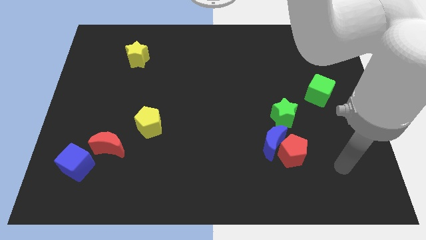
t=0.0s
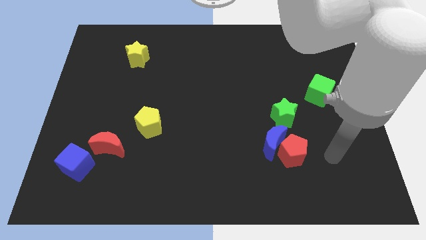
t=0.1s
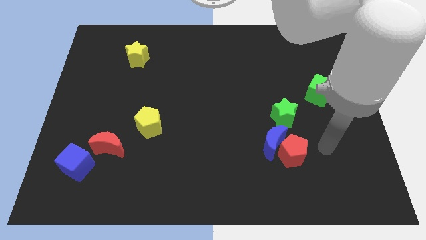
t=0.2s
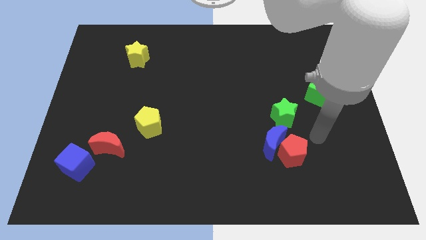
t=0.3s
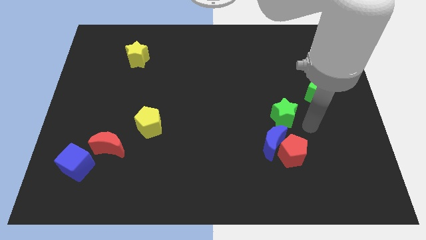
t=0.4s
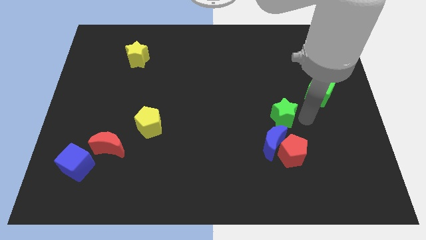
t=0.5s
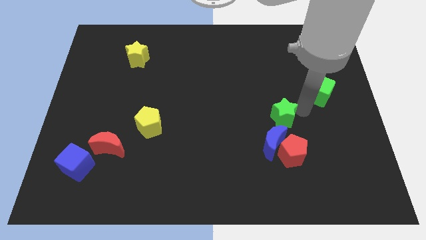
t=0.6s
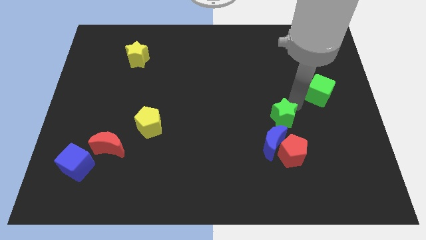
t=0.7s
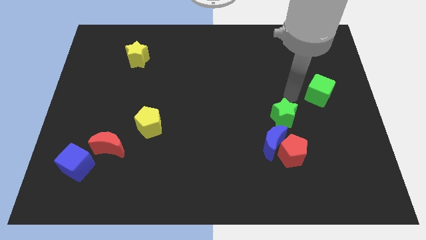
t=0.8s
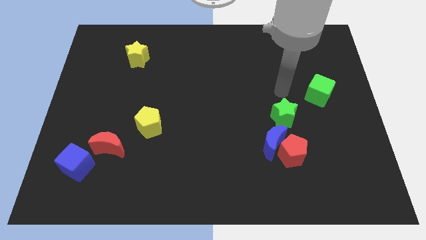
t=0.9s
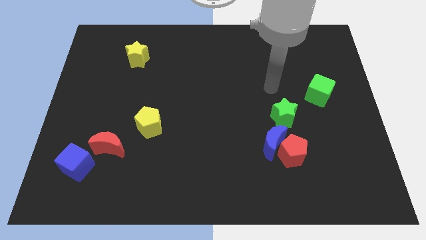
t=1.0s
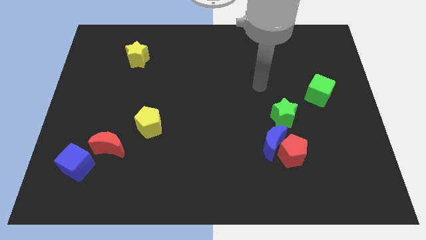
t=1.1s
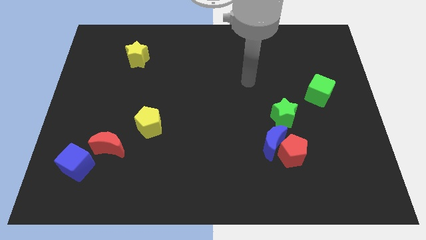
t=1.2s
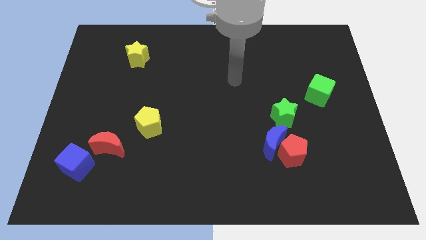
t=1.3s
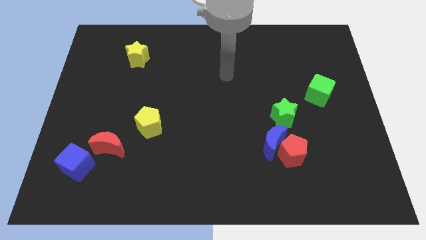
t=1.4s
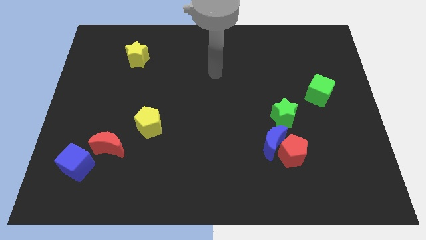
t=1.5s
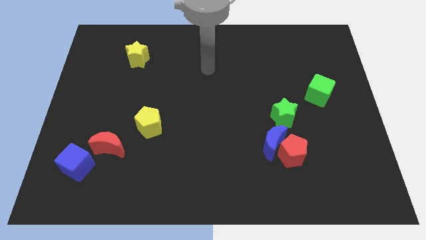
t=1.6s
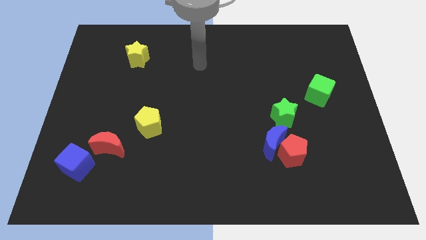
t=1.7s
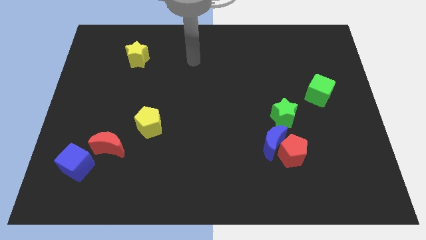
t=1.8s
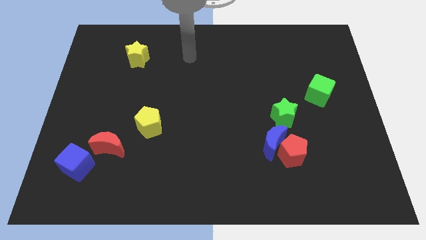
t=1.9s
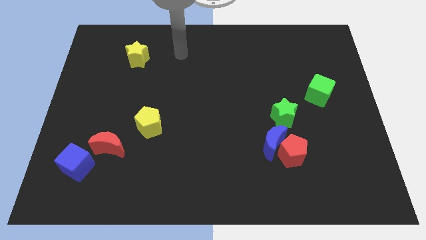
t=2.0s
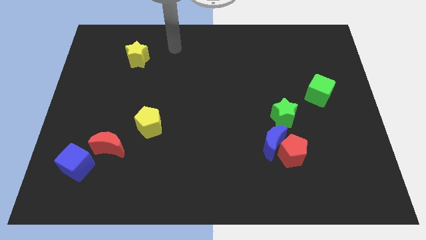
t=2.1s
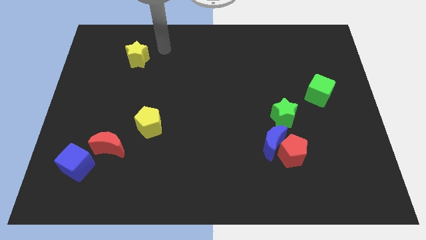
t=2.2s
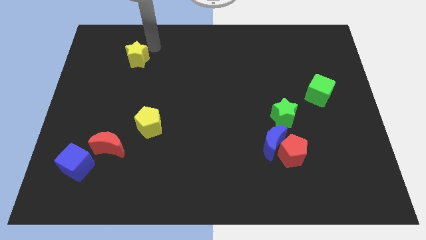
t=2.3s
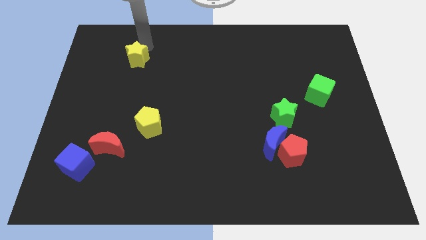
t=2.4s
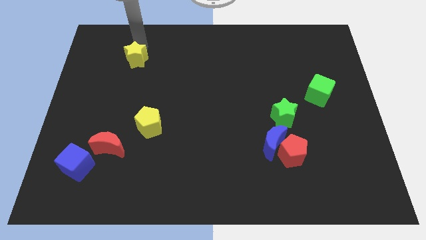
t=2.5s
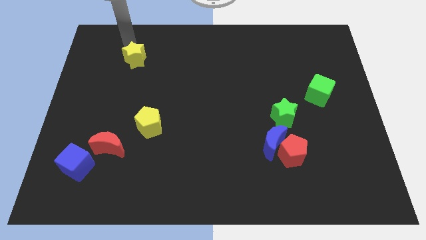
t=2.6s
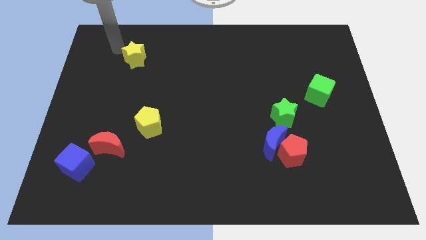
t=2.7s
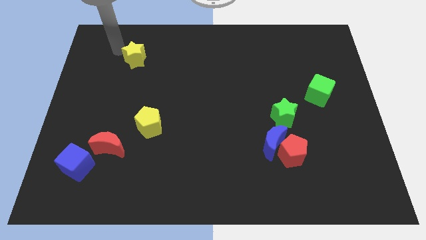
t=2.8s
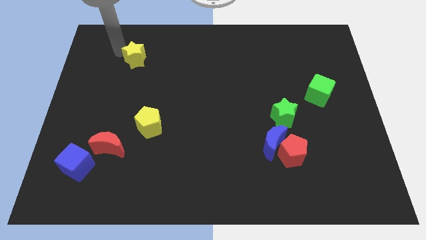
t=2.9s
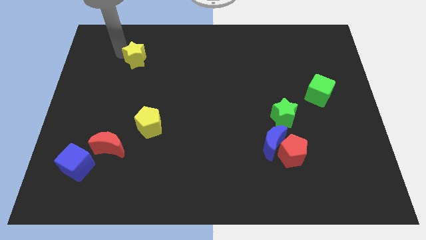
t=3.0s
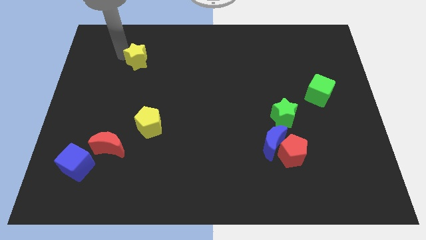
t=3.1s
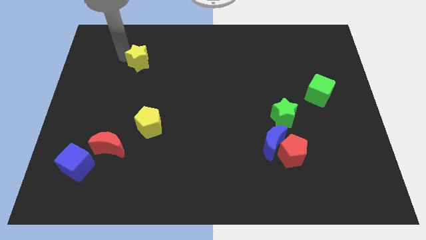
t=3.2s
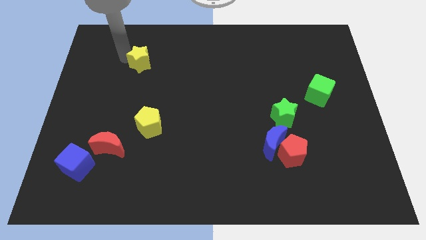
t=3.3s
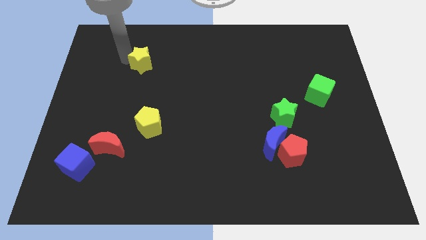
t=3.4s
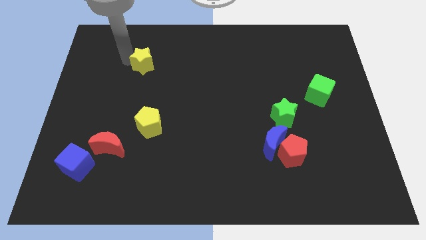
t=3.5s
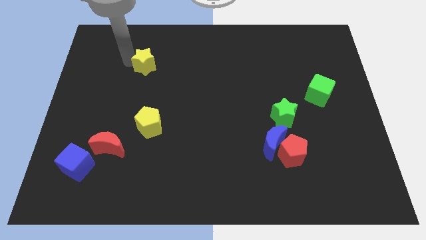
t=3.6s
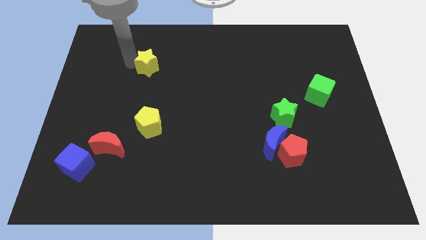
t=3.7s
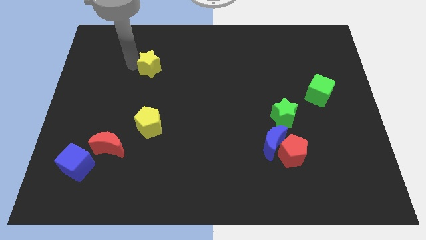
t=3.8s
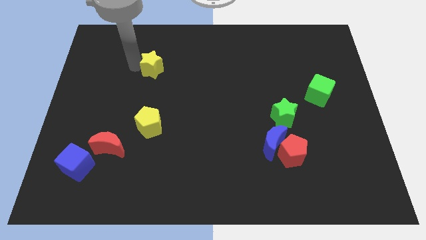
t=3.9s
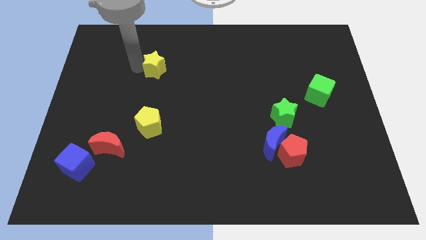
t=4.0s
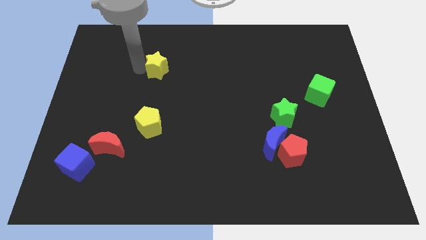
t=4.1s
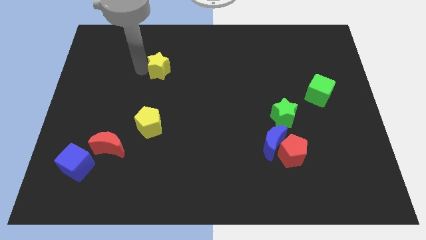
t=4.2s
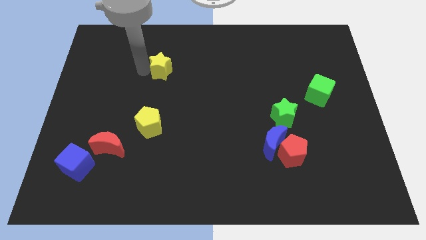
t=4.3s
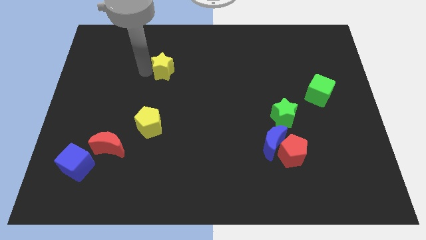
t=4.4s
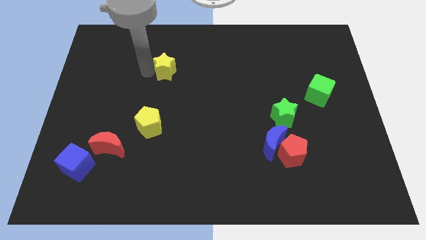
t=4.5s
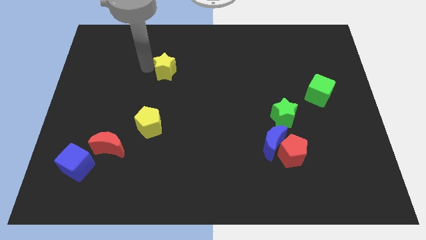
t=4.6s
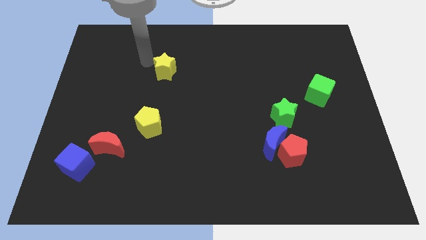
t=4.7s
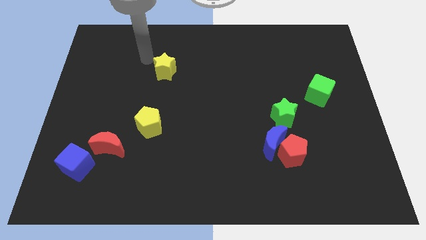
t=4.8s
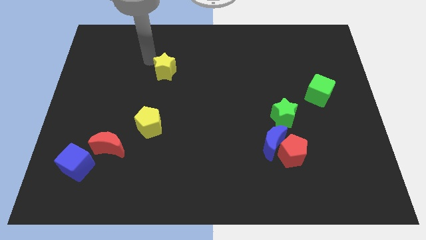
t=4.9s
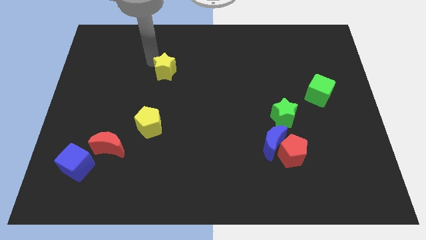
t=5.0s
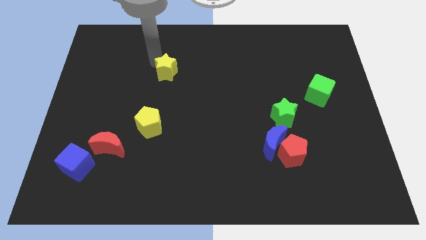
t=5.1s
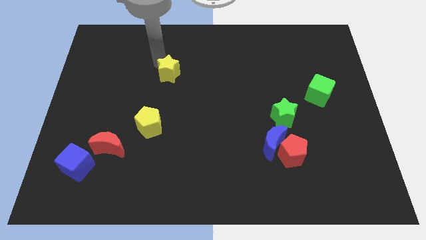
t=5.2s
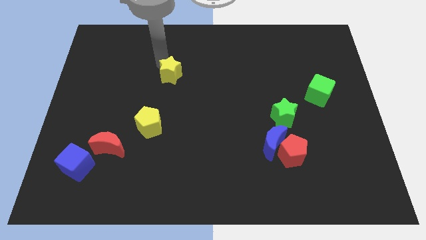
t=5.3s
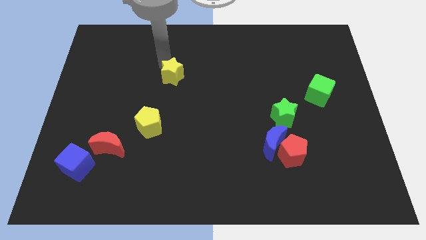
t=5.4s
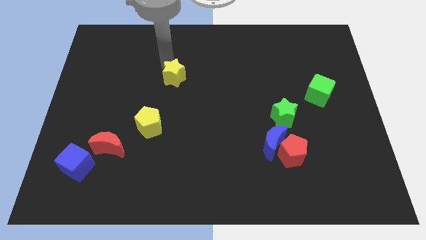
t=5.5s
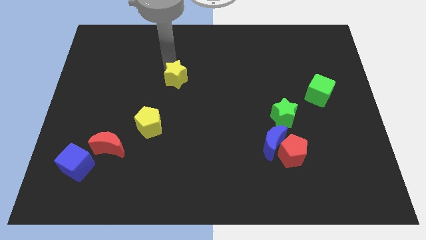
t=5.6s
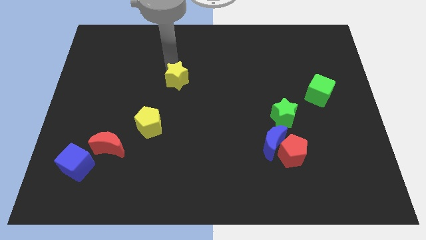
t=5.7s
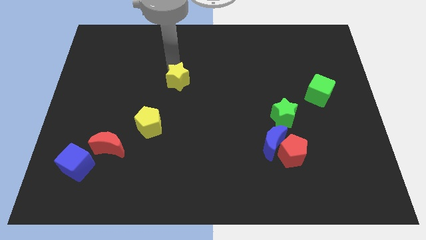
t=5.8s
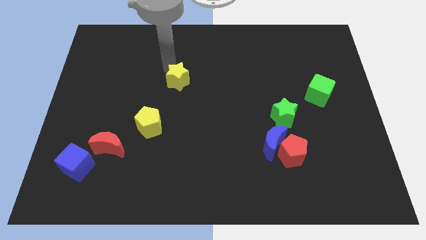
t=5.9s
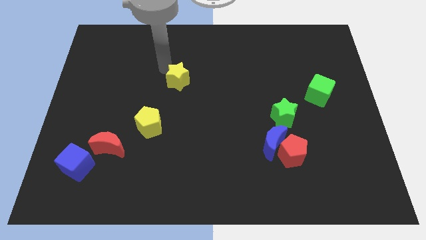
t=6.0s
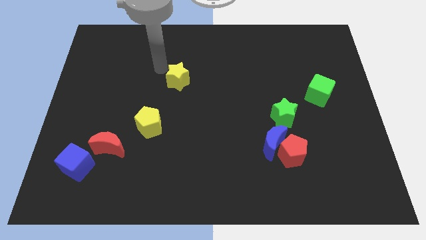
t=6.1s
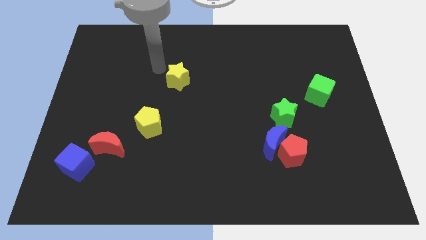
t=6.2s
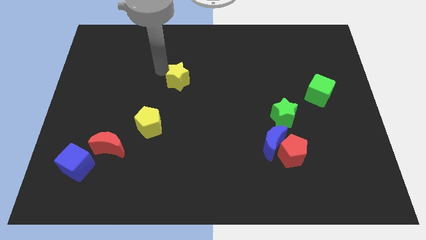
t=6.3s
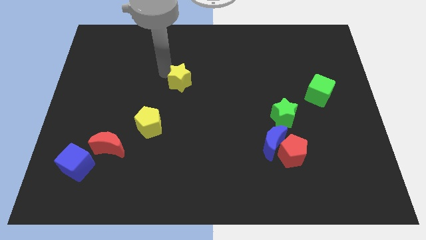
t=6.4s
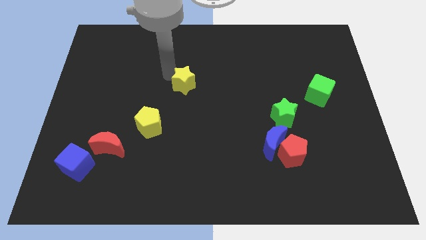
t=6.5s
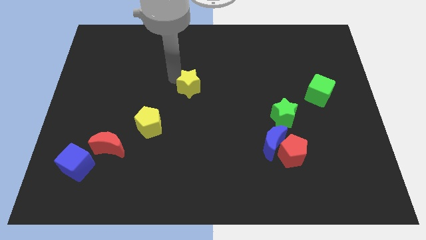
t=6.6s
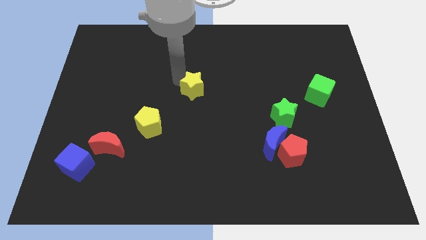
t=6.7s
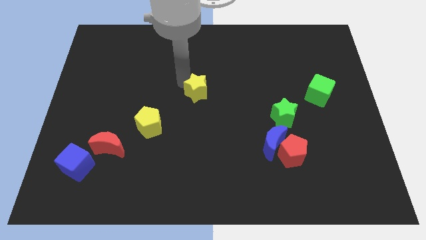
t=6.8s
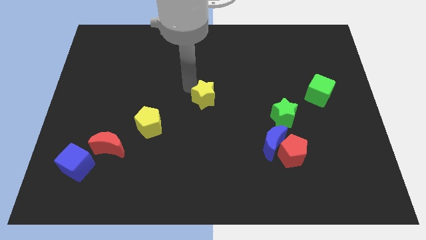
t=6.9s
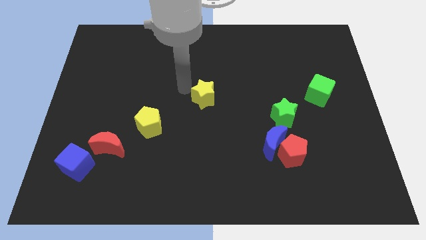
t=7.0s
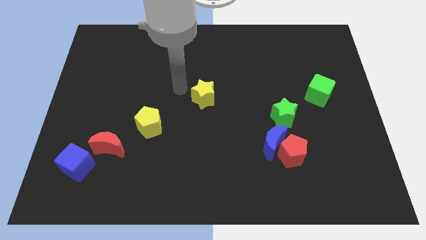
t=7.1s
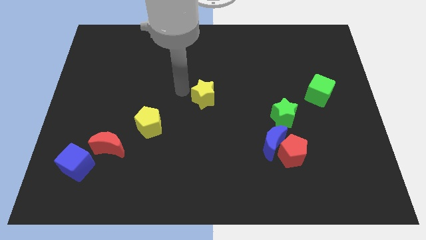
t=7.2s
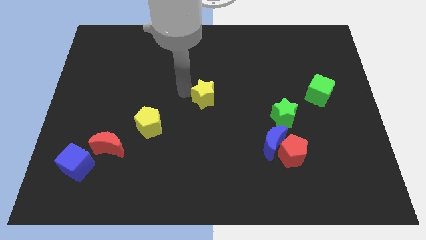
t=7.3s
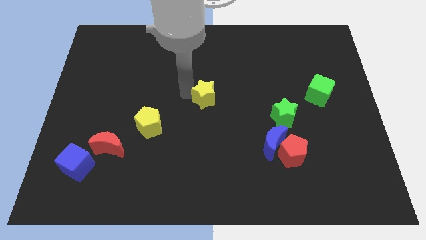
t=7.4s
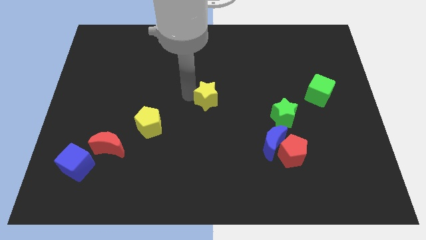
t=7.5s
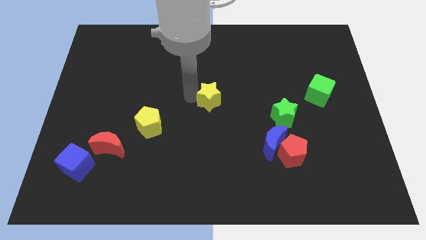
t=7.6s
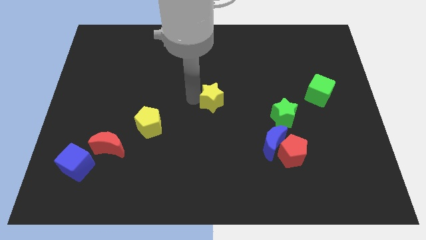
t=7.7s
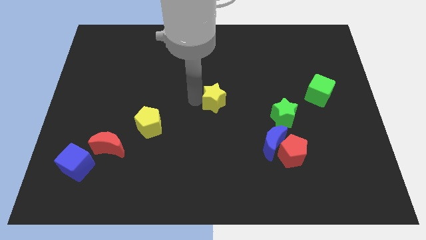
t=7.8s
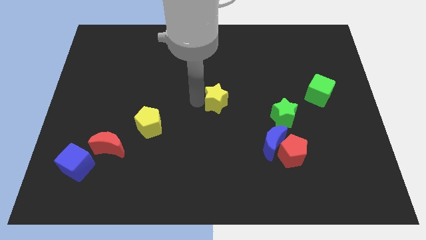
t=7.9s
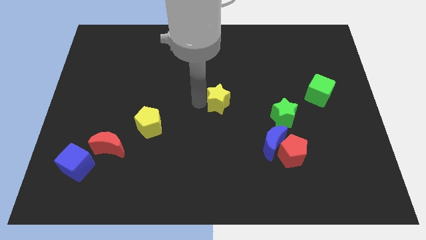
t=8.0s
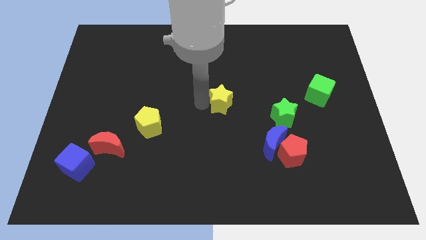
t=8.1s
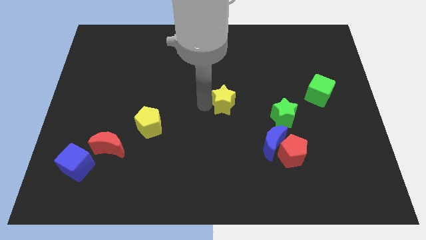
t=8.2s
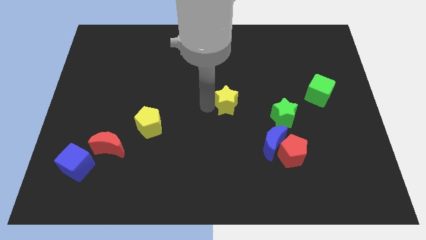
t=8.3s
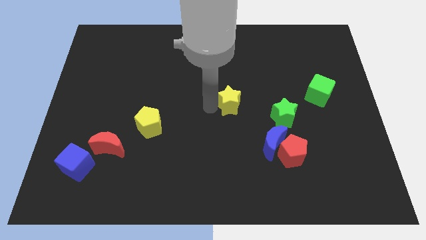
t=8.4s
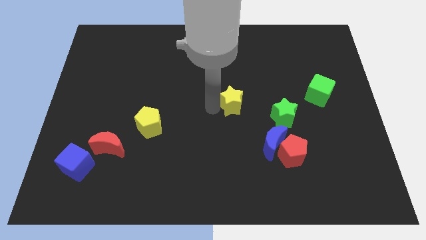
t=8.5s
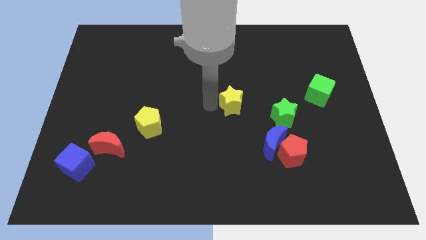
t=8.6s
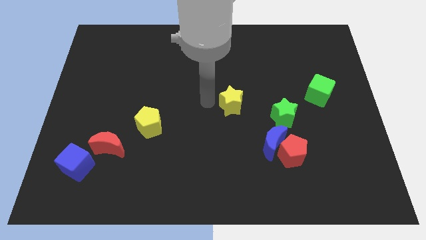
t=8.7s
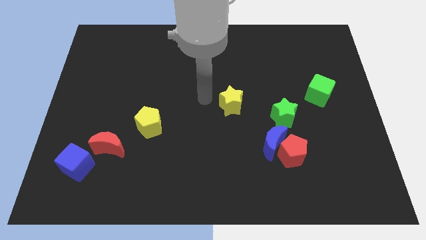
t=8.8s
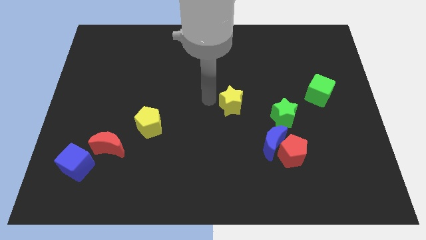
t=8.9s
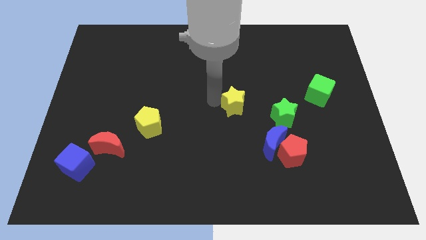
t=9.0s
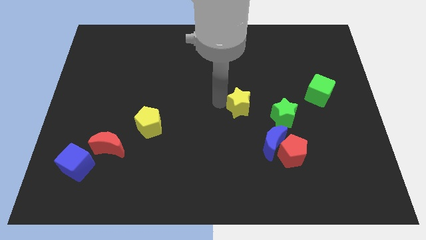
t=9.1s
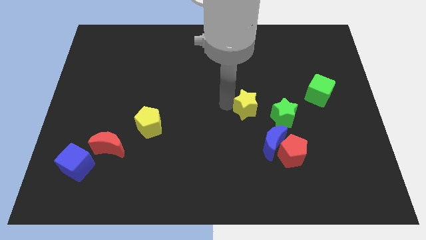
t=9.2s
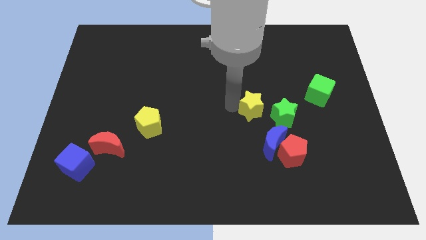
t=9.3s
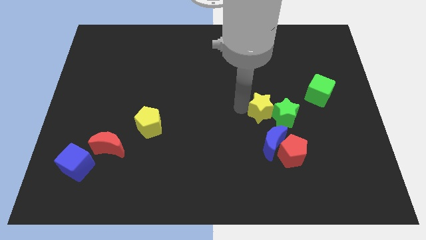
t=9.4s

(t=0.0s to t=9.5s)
push the yellow star close to the green star
